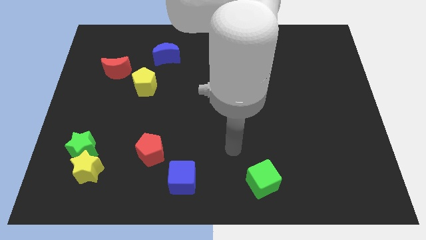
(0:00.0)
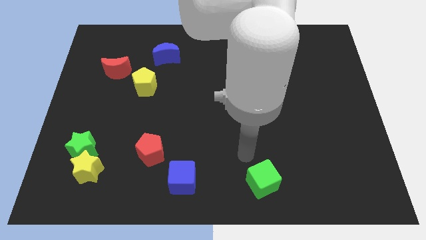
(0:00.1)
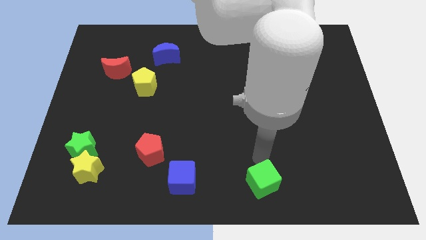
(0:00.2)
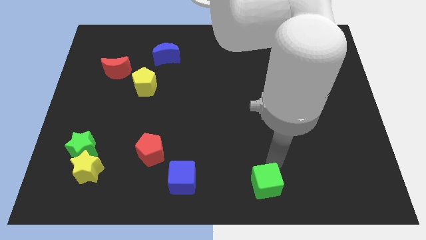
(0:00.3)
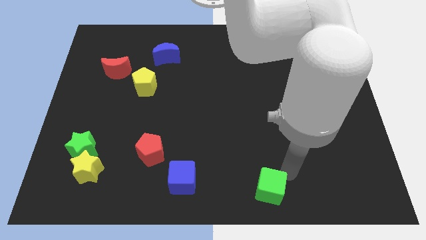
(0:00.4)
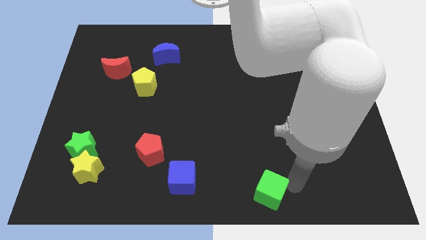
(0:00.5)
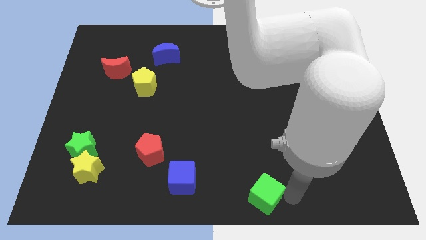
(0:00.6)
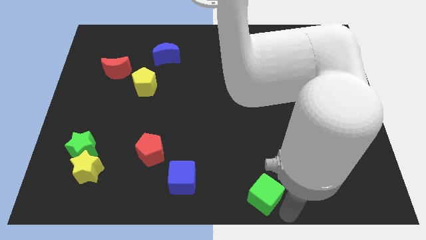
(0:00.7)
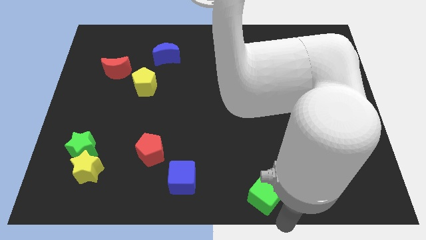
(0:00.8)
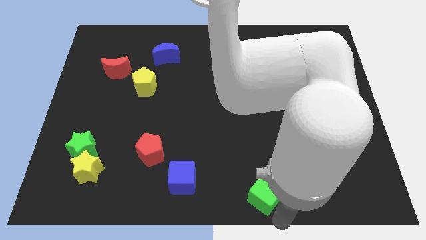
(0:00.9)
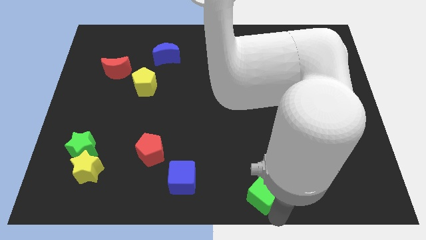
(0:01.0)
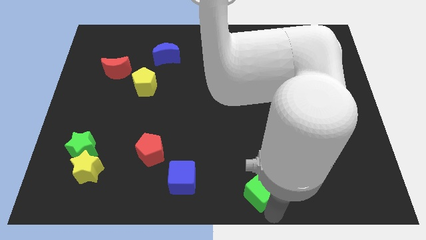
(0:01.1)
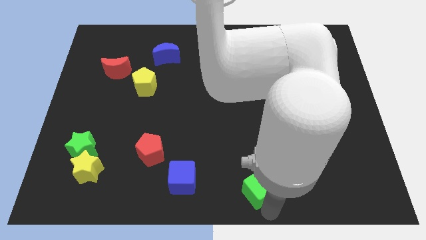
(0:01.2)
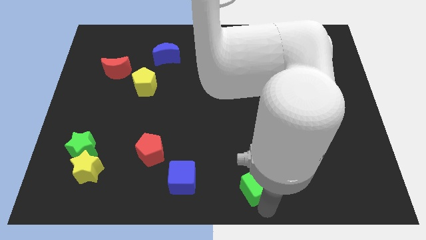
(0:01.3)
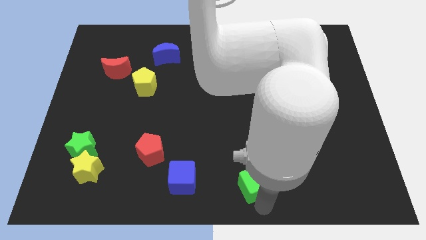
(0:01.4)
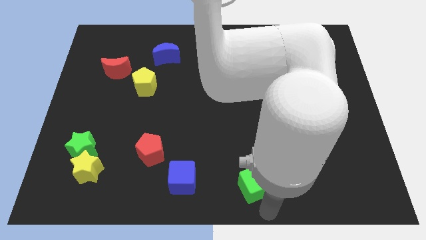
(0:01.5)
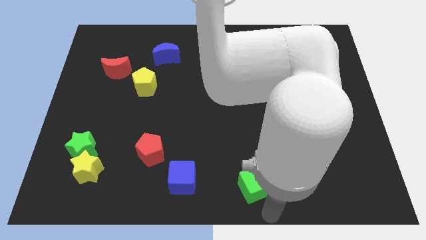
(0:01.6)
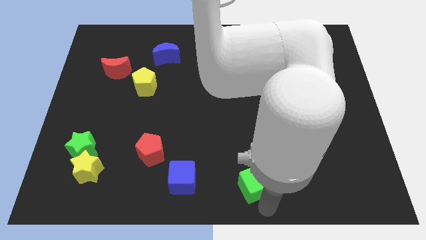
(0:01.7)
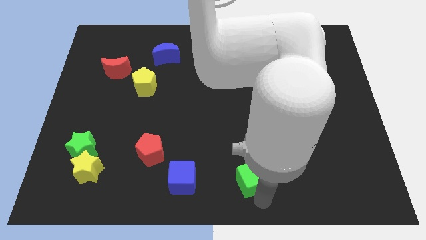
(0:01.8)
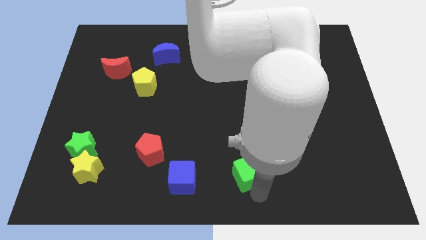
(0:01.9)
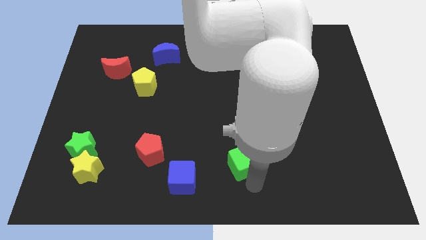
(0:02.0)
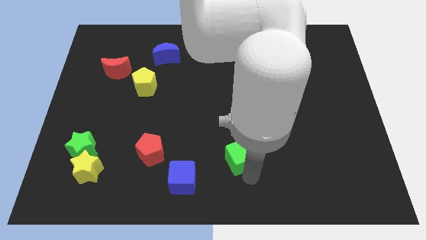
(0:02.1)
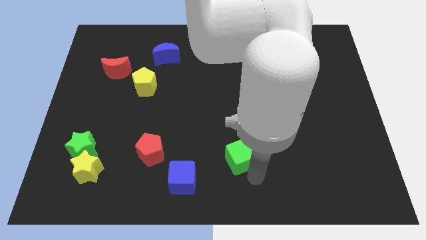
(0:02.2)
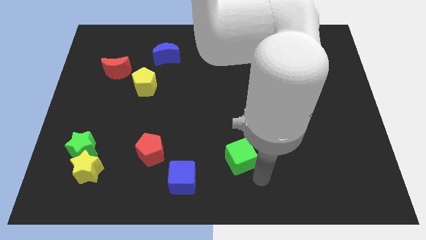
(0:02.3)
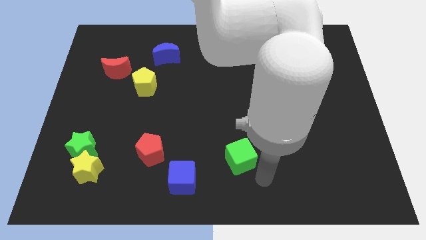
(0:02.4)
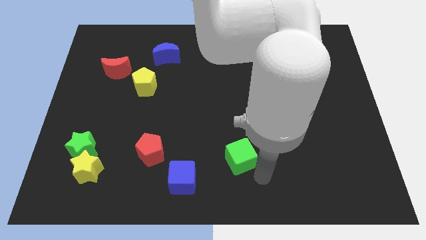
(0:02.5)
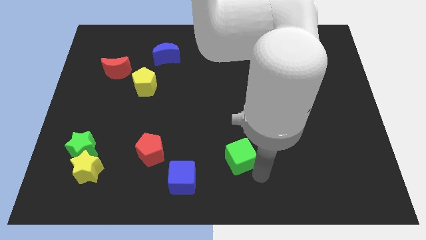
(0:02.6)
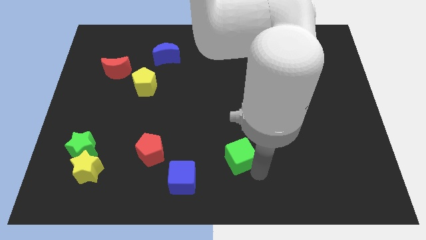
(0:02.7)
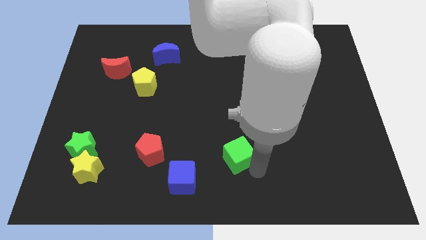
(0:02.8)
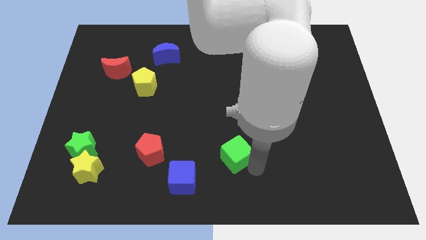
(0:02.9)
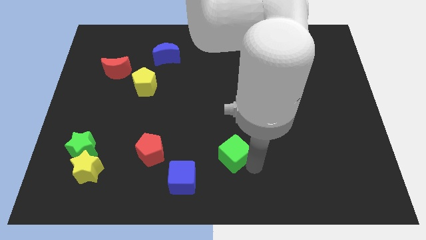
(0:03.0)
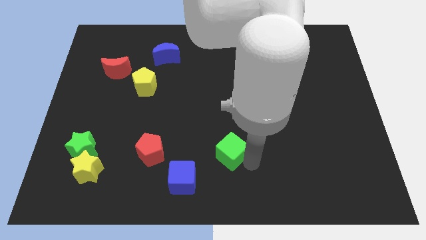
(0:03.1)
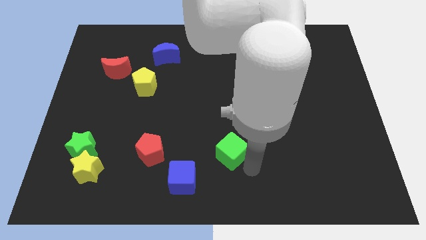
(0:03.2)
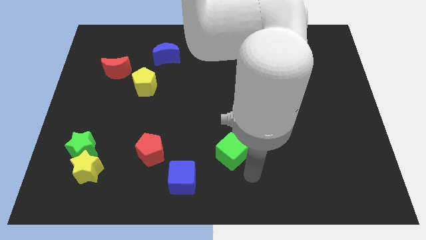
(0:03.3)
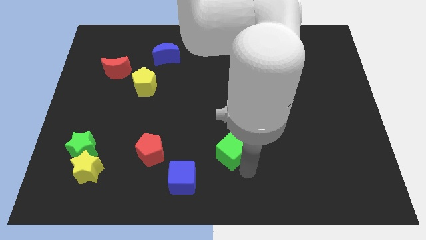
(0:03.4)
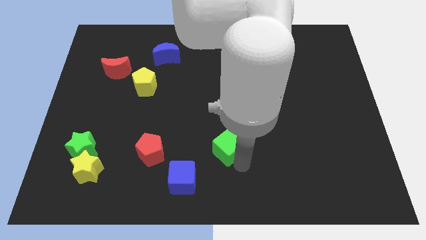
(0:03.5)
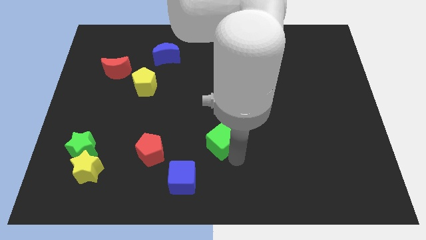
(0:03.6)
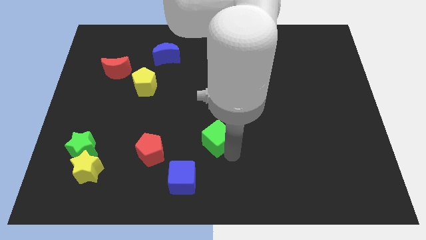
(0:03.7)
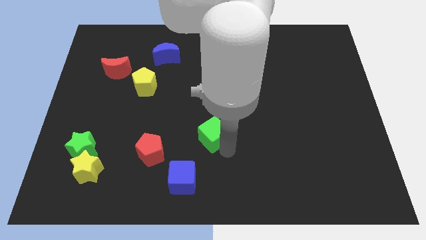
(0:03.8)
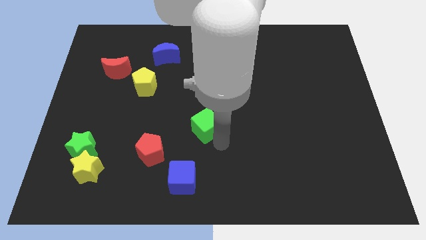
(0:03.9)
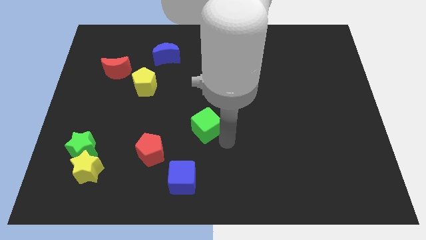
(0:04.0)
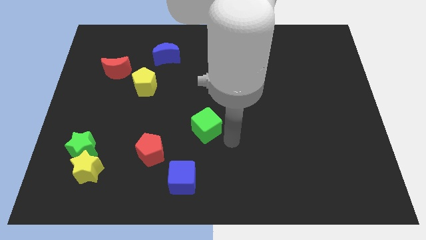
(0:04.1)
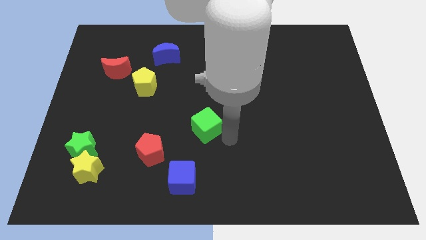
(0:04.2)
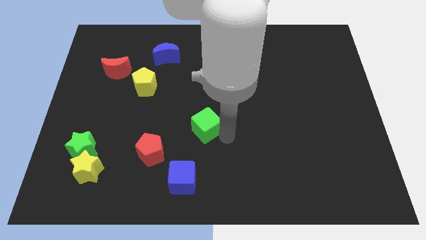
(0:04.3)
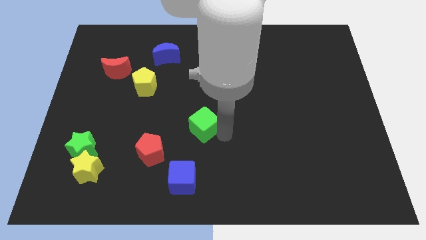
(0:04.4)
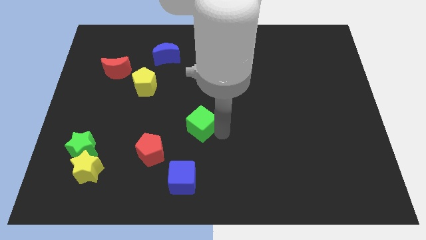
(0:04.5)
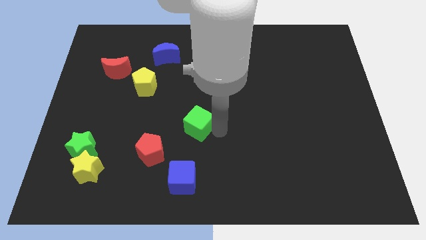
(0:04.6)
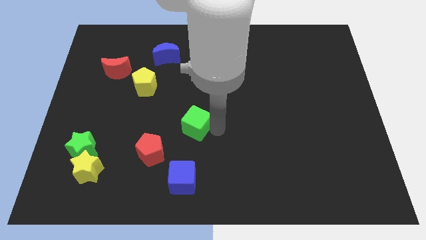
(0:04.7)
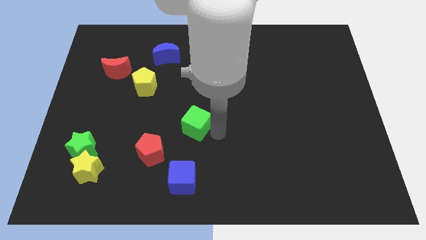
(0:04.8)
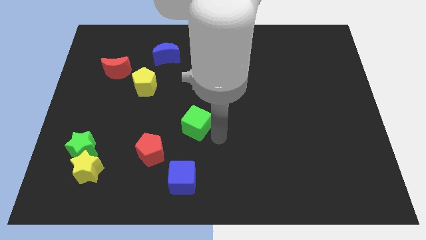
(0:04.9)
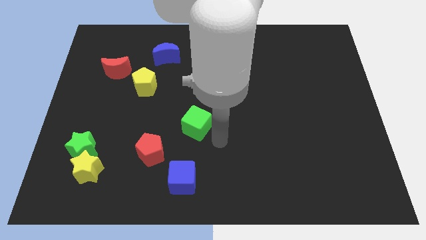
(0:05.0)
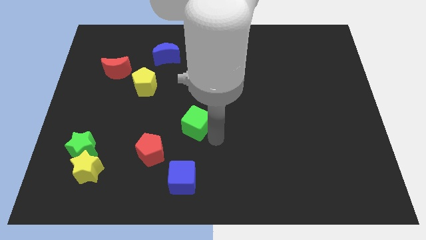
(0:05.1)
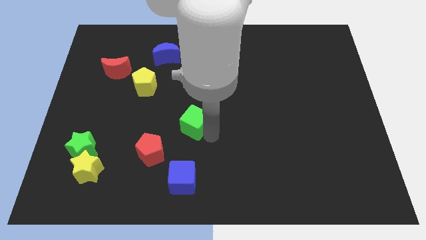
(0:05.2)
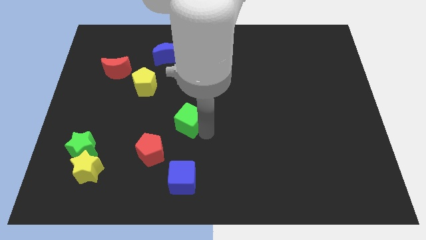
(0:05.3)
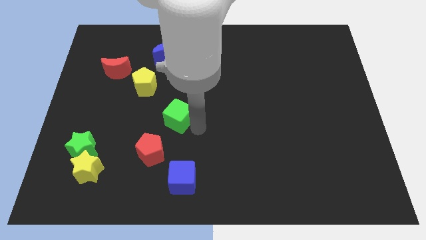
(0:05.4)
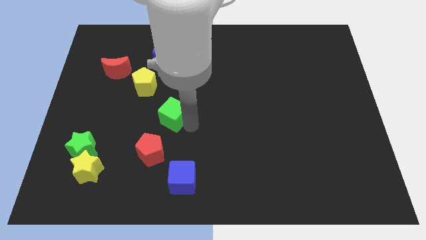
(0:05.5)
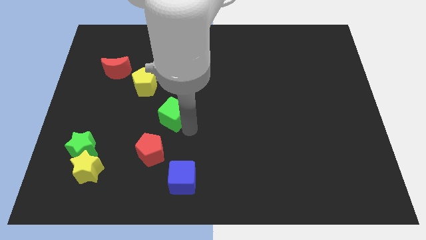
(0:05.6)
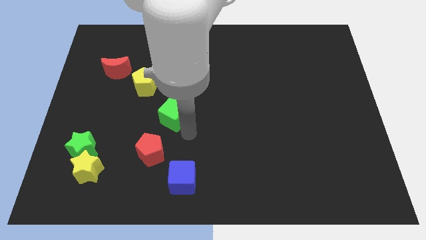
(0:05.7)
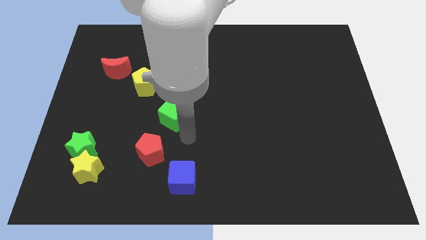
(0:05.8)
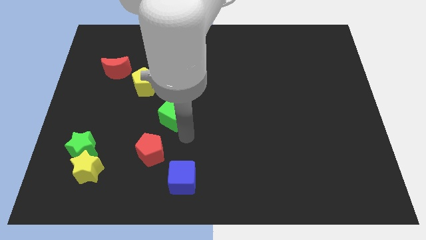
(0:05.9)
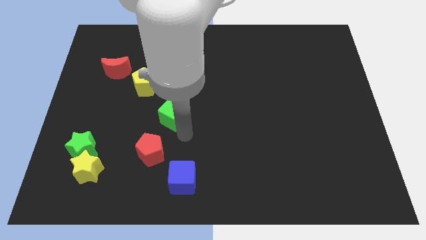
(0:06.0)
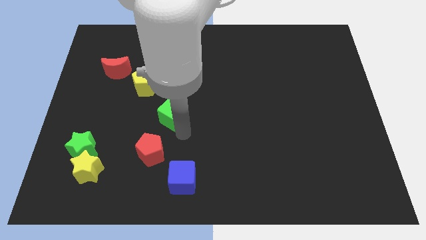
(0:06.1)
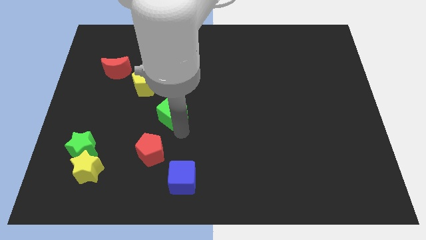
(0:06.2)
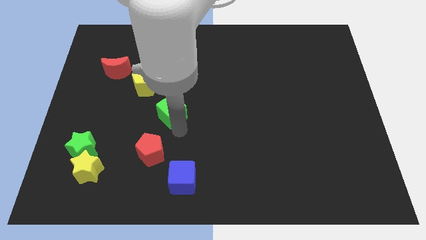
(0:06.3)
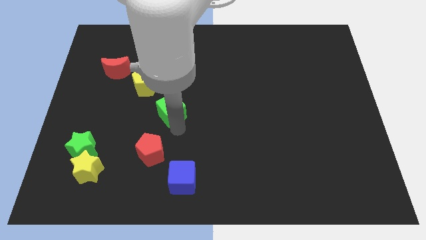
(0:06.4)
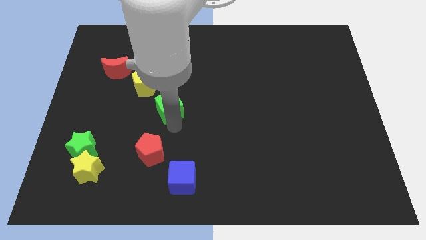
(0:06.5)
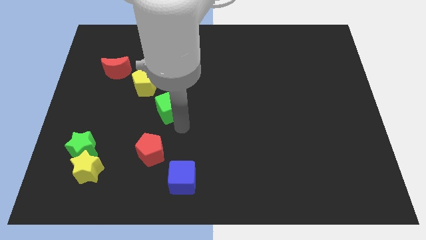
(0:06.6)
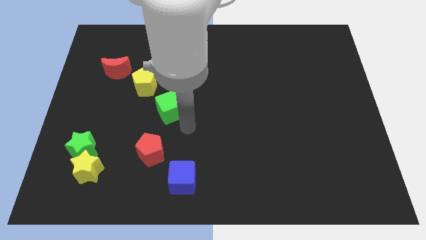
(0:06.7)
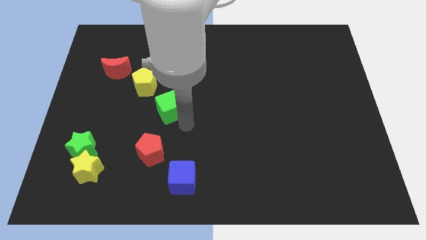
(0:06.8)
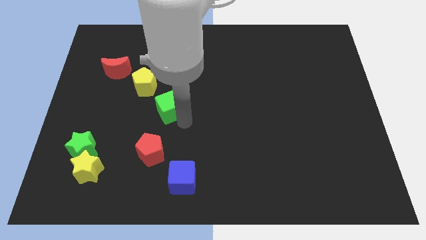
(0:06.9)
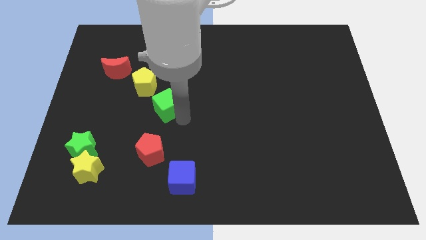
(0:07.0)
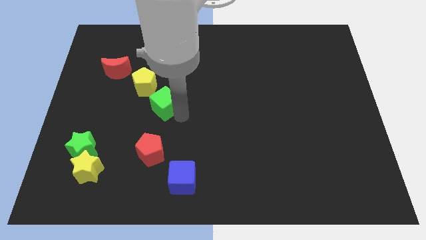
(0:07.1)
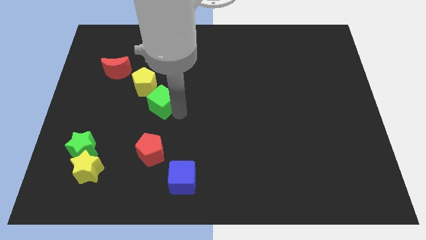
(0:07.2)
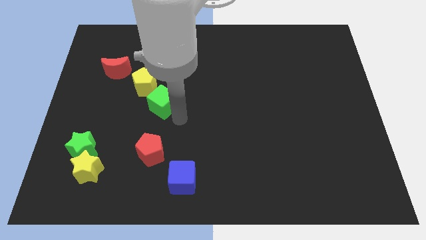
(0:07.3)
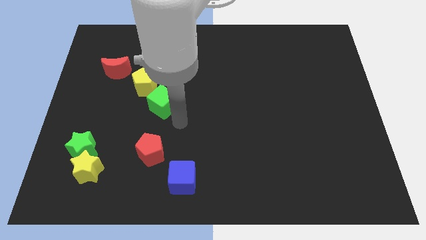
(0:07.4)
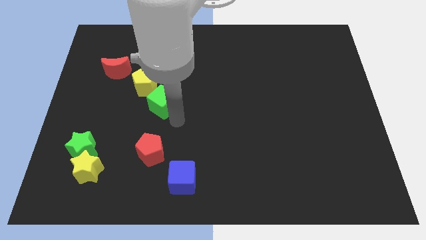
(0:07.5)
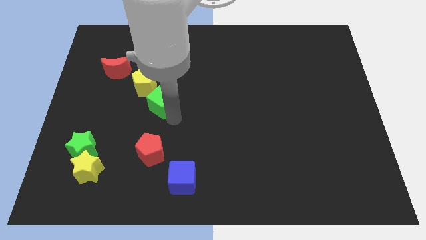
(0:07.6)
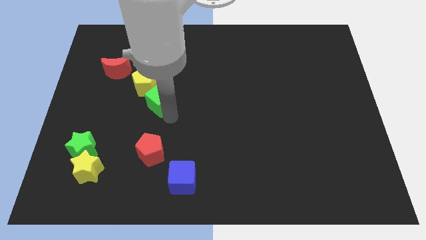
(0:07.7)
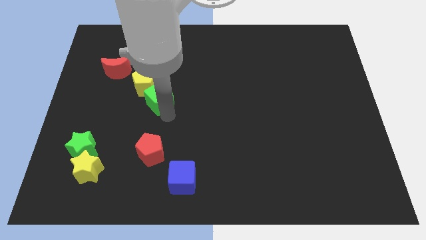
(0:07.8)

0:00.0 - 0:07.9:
put the green cube to the yellow pentagon
